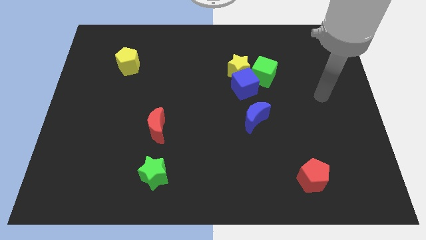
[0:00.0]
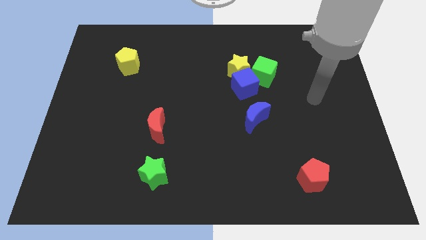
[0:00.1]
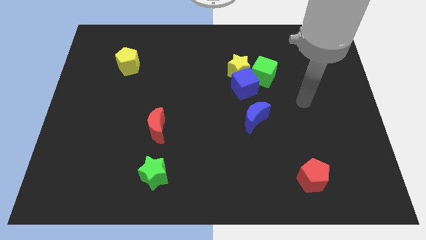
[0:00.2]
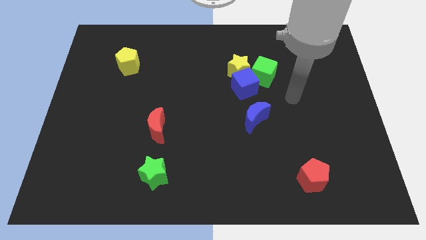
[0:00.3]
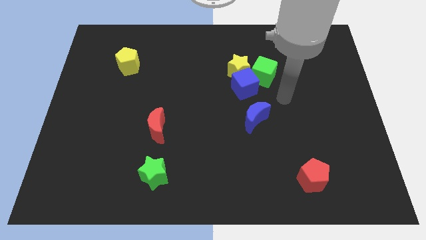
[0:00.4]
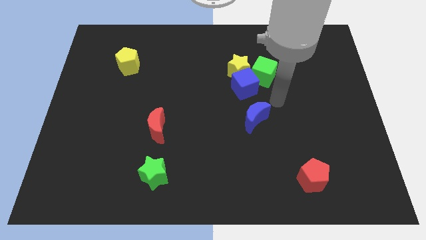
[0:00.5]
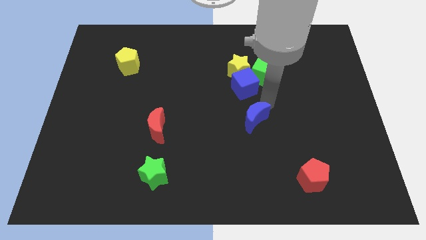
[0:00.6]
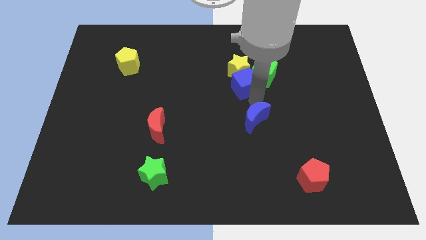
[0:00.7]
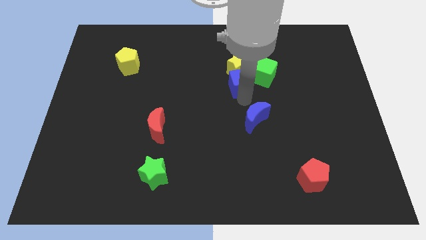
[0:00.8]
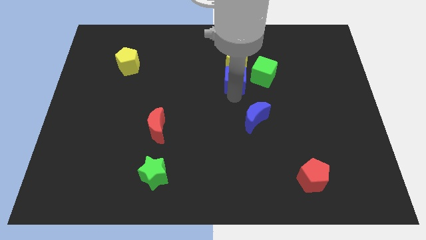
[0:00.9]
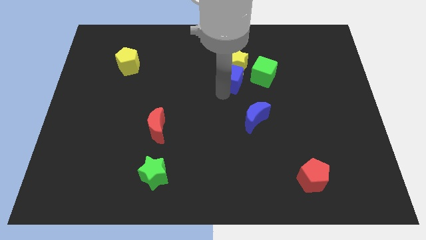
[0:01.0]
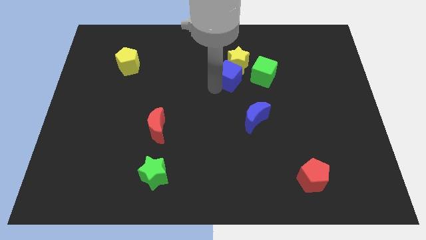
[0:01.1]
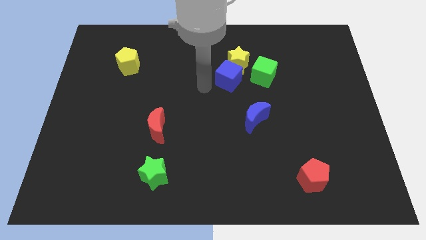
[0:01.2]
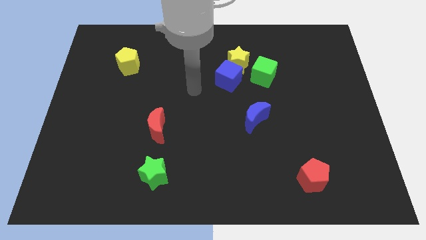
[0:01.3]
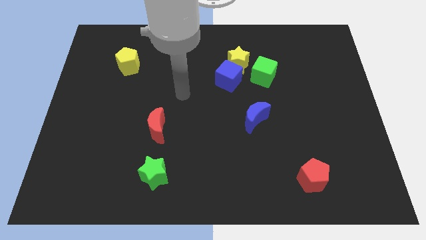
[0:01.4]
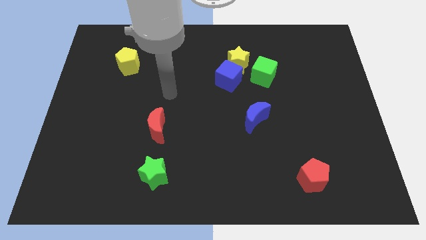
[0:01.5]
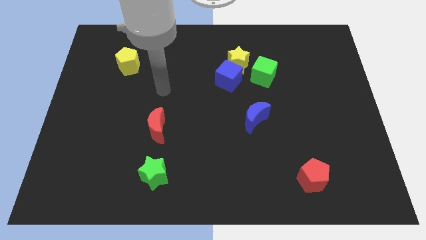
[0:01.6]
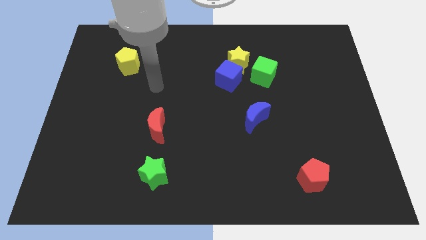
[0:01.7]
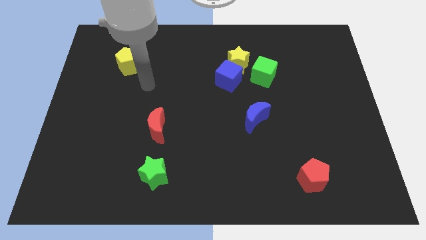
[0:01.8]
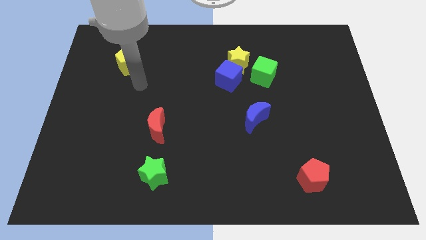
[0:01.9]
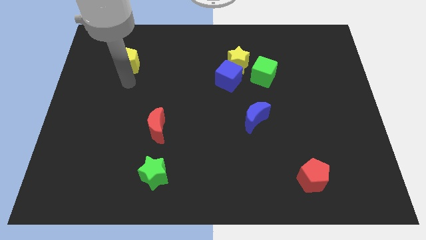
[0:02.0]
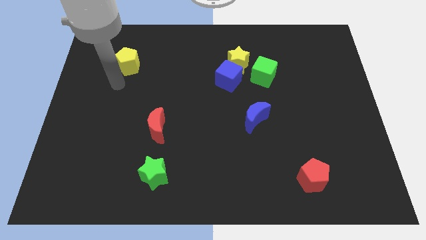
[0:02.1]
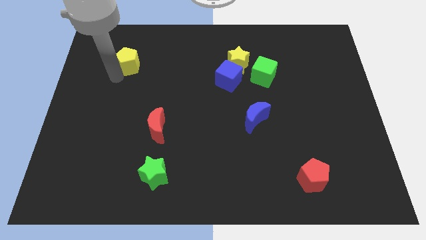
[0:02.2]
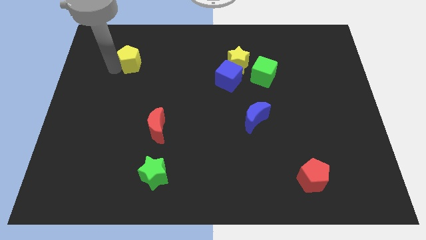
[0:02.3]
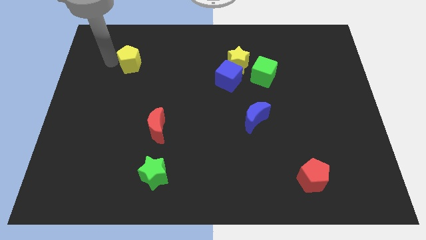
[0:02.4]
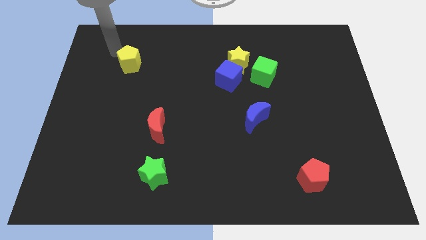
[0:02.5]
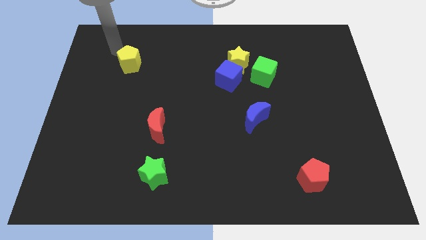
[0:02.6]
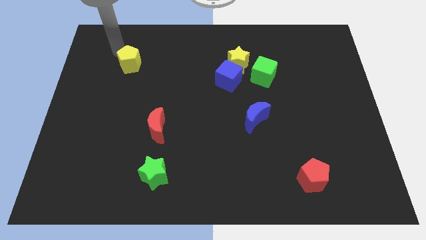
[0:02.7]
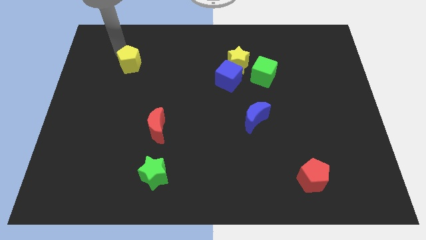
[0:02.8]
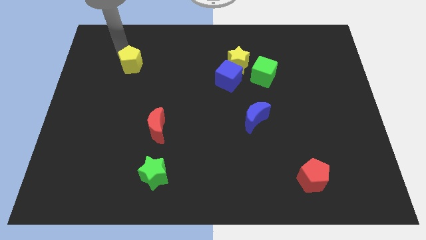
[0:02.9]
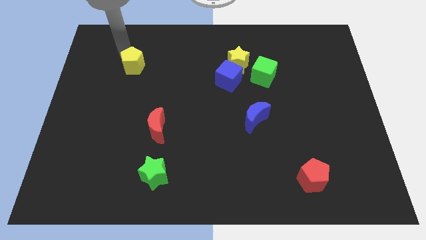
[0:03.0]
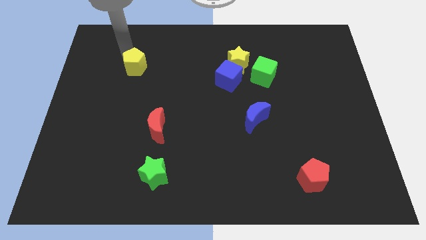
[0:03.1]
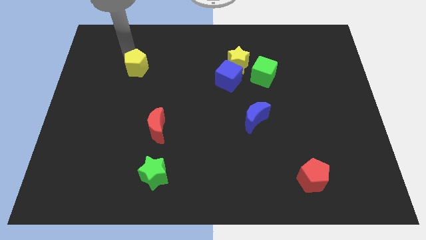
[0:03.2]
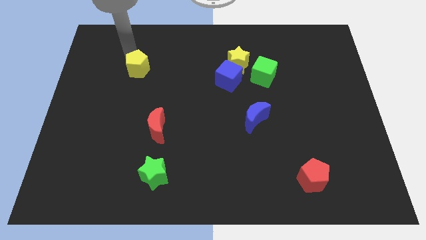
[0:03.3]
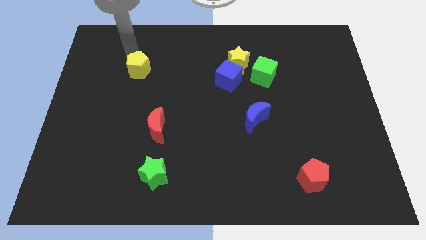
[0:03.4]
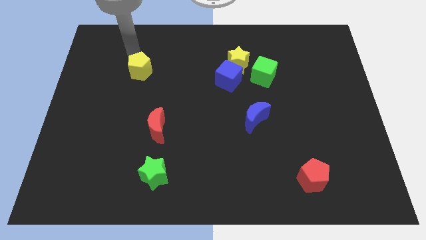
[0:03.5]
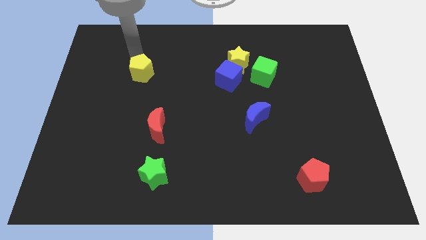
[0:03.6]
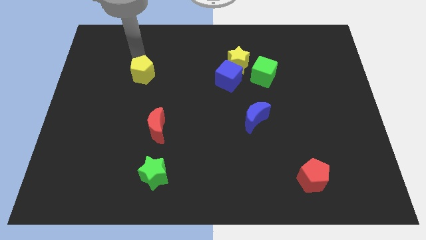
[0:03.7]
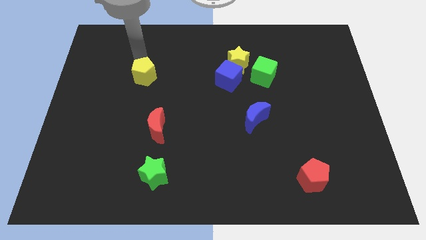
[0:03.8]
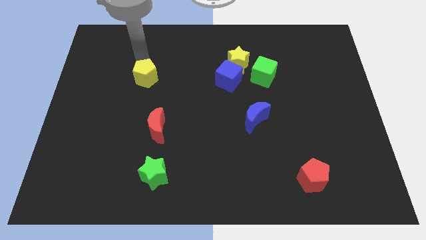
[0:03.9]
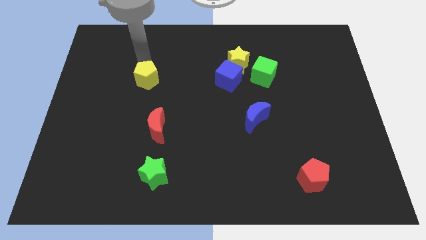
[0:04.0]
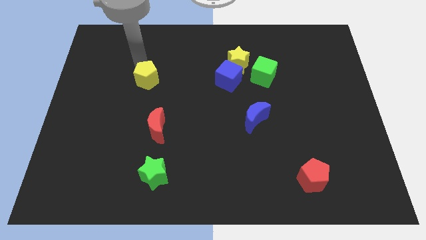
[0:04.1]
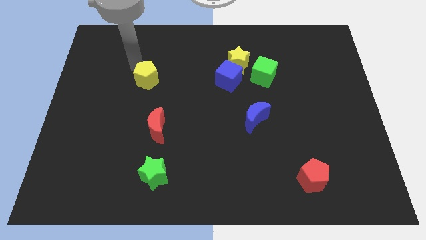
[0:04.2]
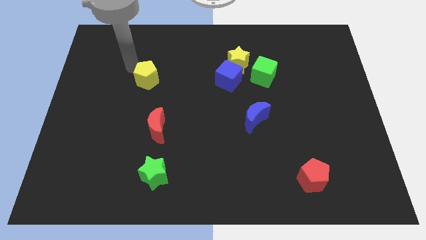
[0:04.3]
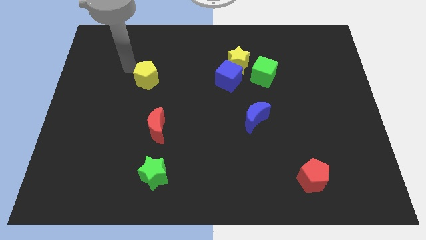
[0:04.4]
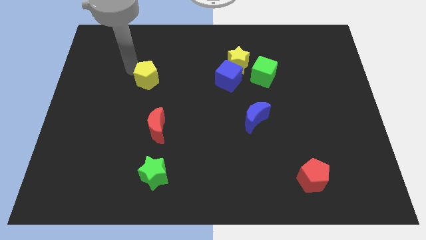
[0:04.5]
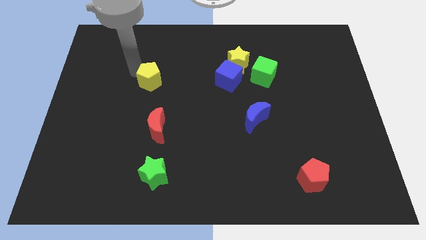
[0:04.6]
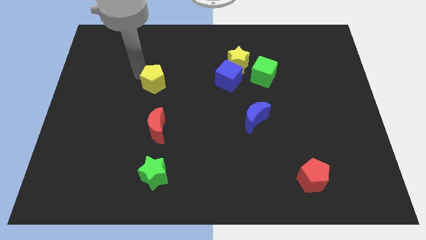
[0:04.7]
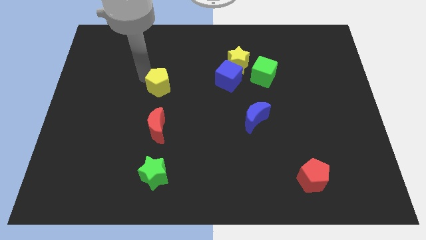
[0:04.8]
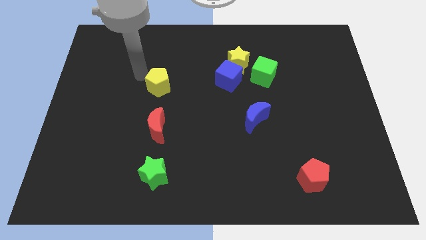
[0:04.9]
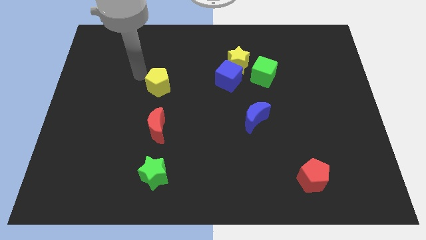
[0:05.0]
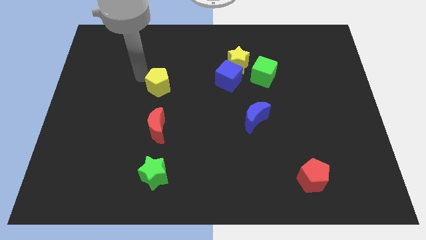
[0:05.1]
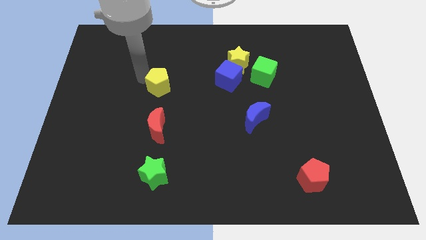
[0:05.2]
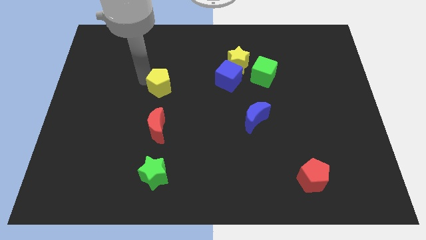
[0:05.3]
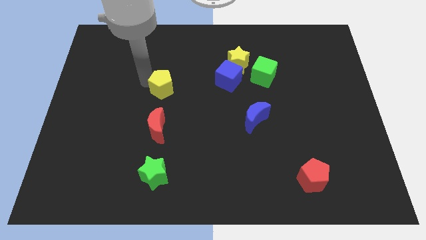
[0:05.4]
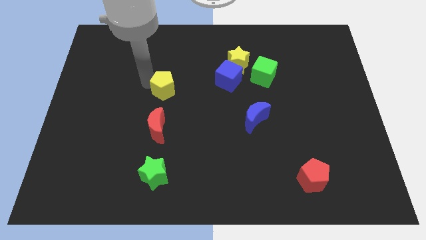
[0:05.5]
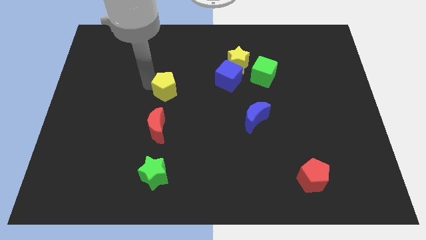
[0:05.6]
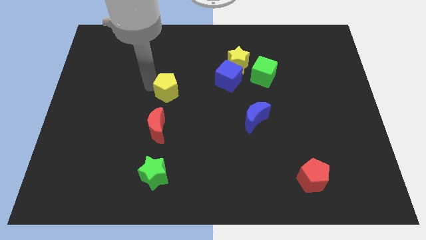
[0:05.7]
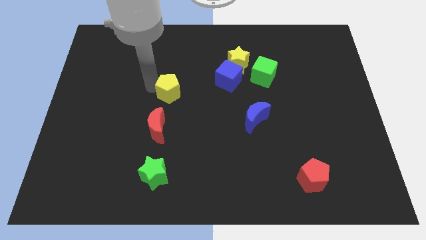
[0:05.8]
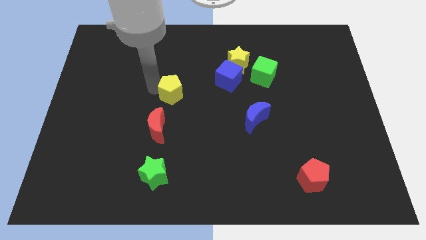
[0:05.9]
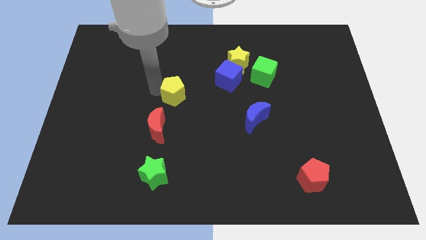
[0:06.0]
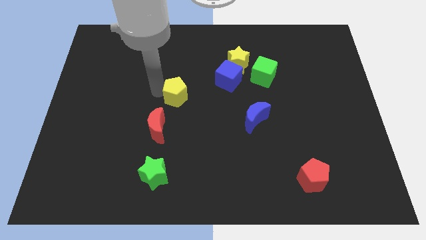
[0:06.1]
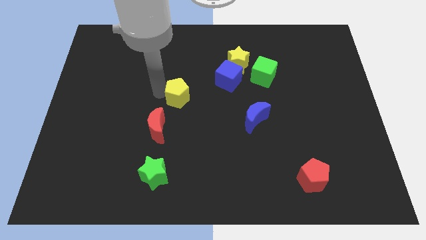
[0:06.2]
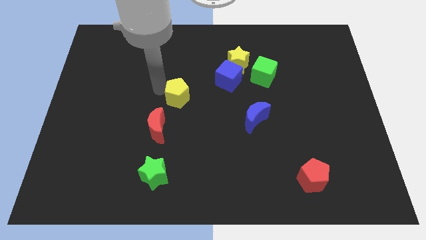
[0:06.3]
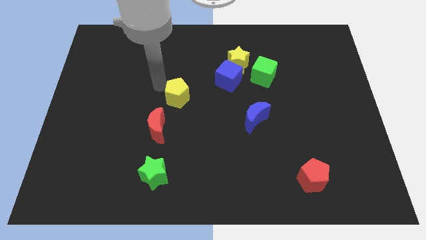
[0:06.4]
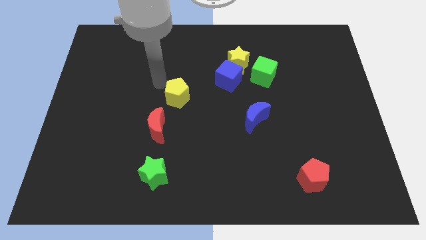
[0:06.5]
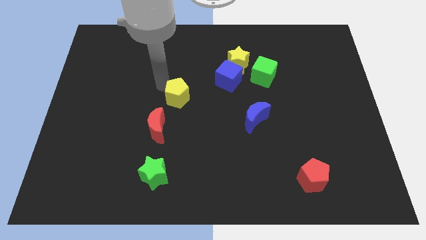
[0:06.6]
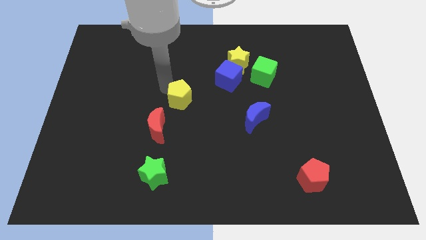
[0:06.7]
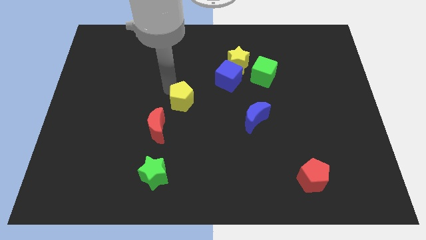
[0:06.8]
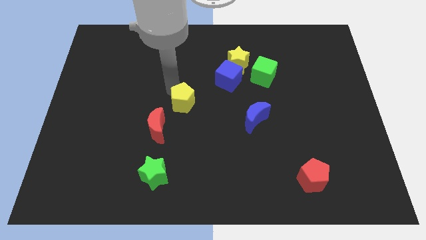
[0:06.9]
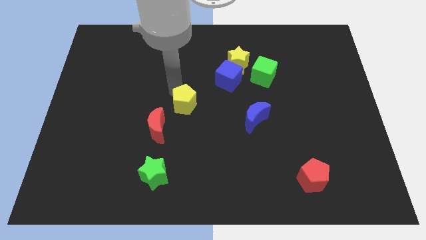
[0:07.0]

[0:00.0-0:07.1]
slide the yellow pentagon diagonally downwards and to the right

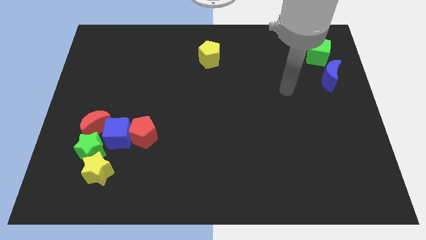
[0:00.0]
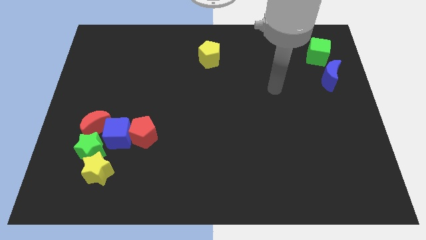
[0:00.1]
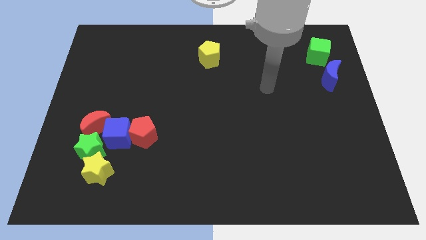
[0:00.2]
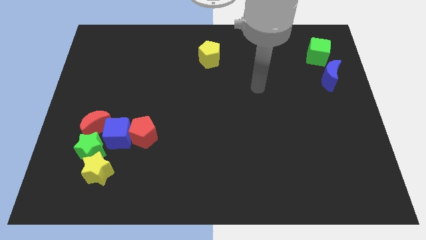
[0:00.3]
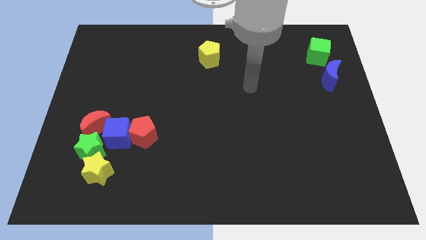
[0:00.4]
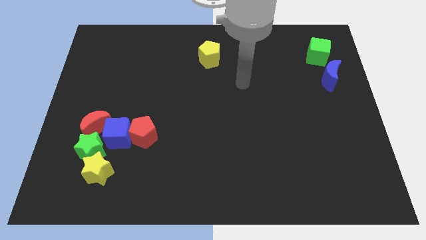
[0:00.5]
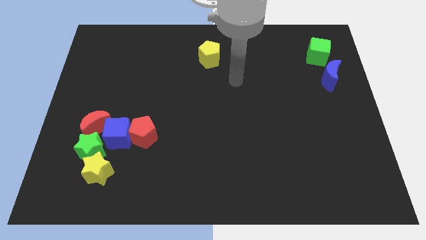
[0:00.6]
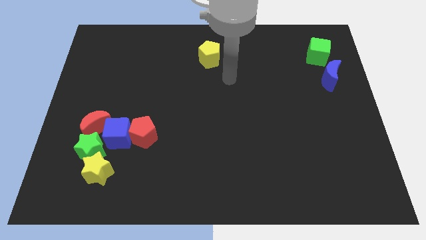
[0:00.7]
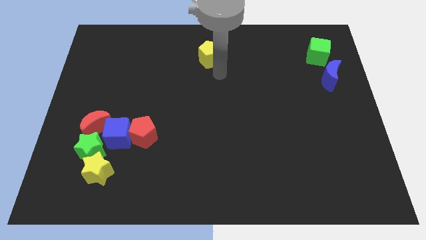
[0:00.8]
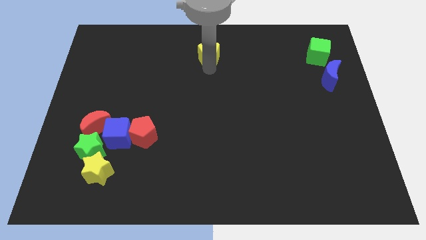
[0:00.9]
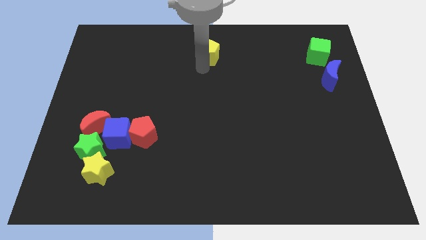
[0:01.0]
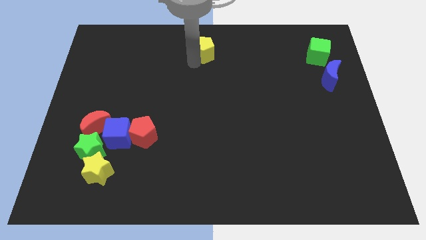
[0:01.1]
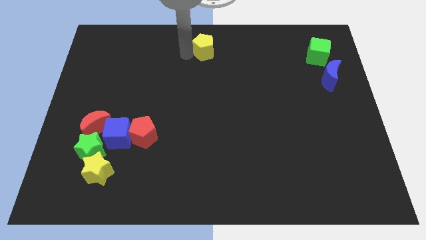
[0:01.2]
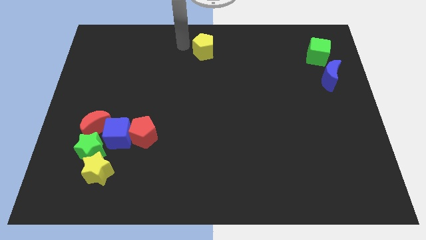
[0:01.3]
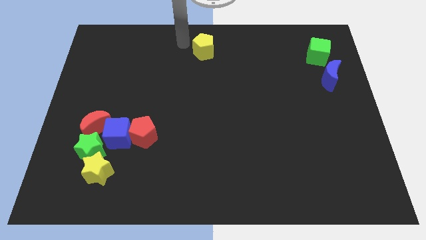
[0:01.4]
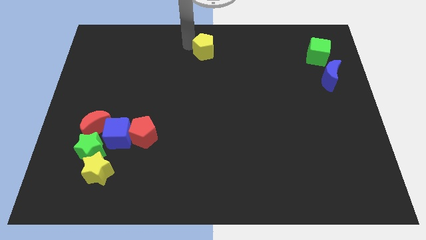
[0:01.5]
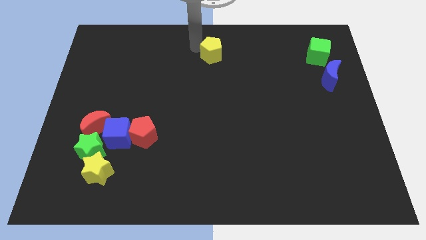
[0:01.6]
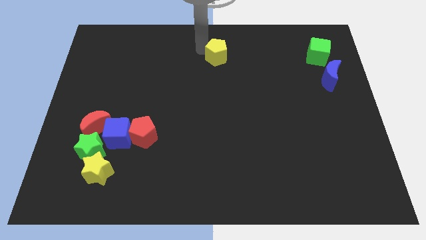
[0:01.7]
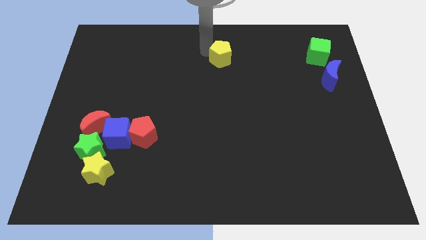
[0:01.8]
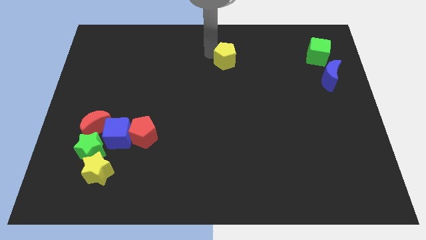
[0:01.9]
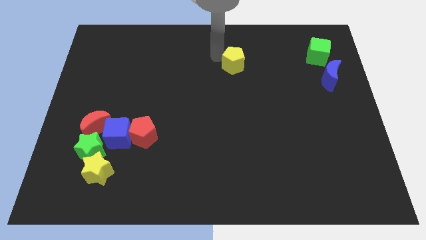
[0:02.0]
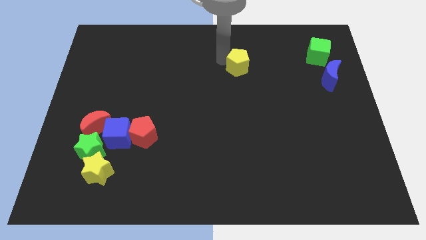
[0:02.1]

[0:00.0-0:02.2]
slide the yellow pentagon right slightly
